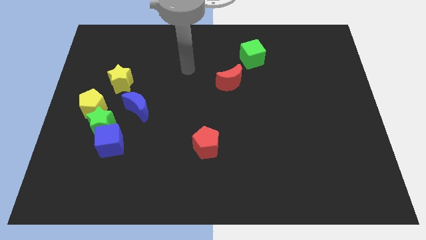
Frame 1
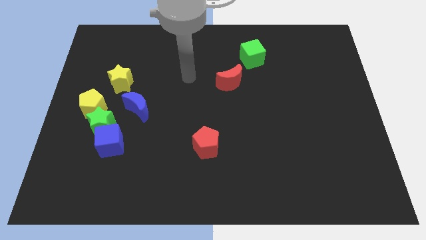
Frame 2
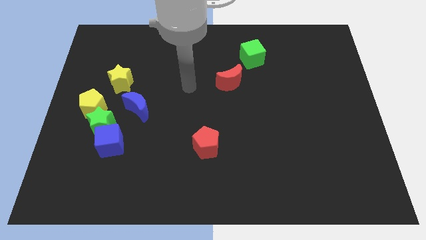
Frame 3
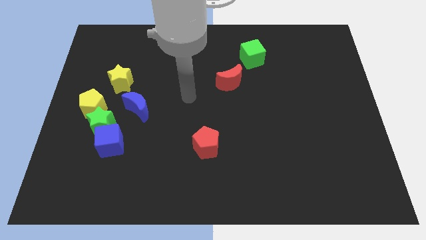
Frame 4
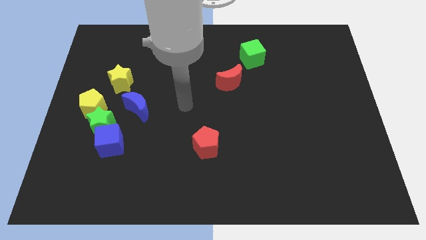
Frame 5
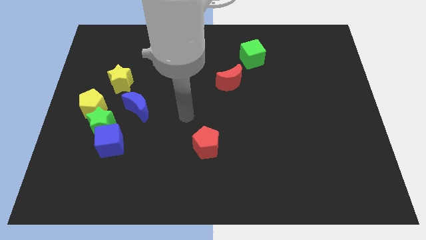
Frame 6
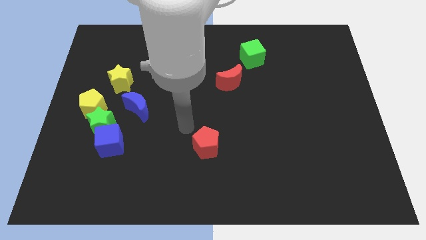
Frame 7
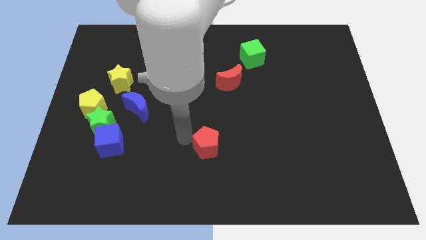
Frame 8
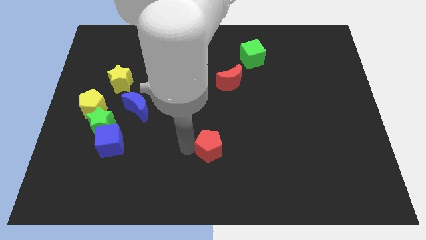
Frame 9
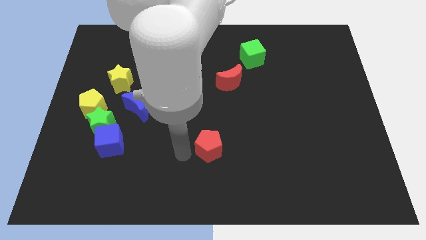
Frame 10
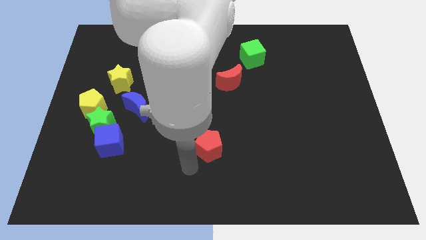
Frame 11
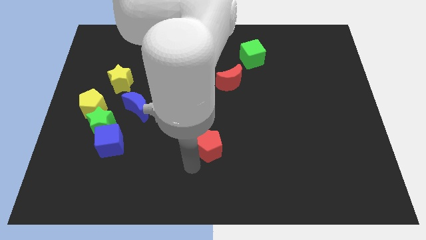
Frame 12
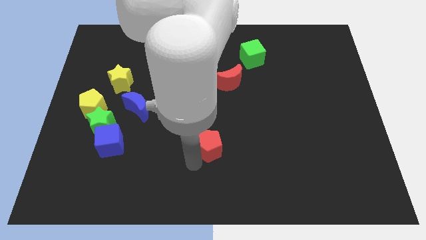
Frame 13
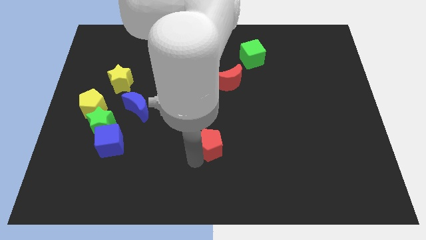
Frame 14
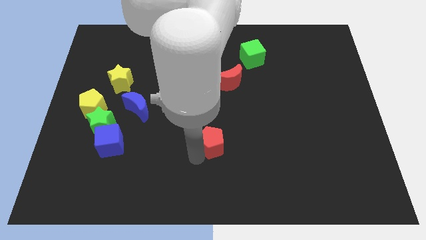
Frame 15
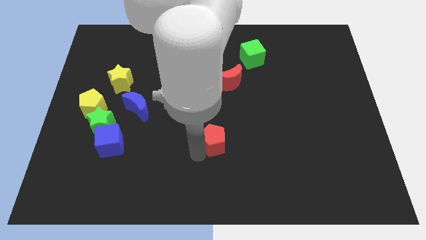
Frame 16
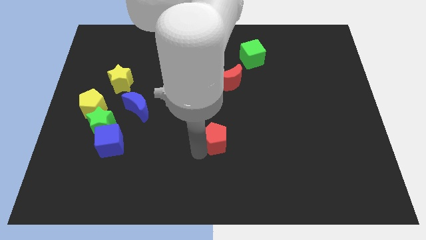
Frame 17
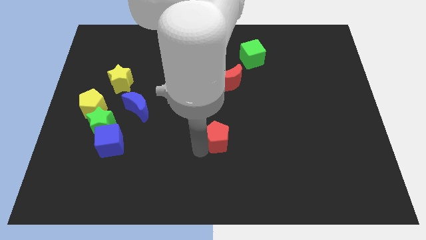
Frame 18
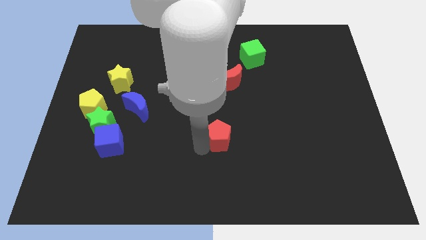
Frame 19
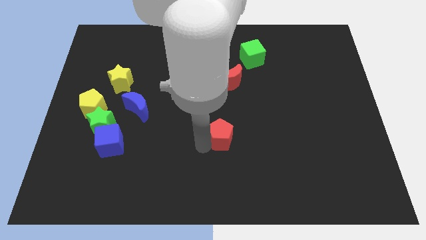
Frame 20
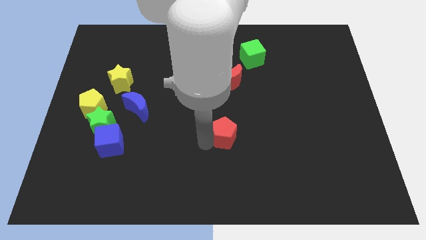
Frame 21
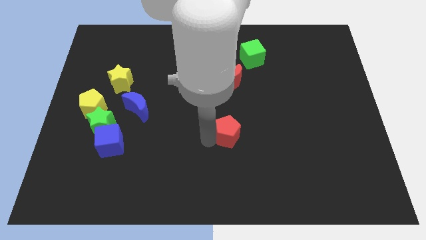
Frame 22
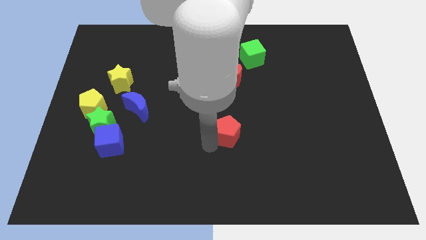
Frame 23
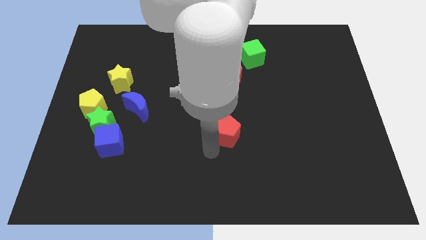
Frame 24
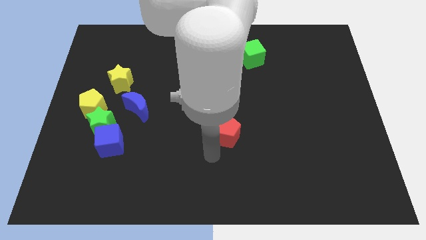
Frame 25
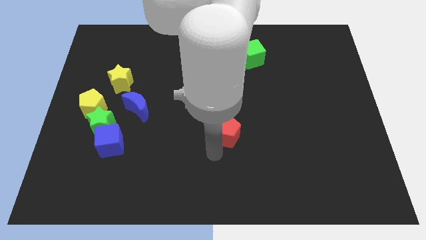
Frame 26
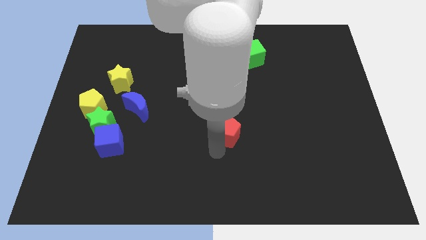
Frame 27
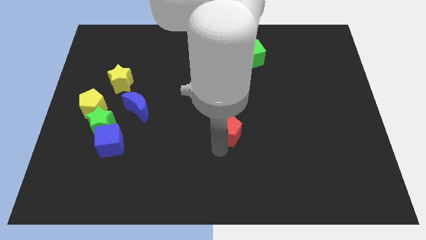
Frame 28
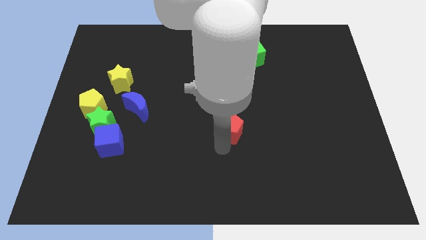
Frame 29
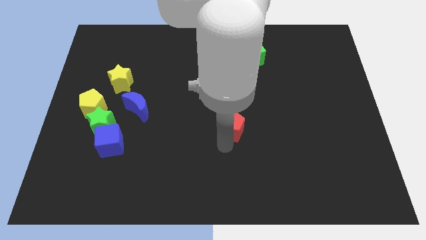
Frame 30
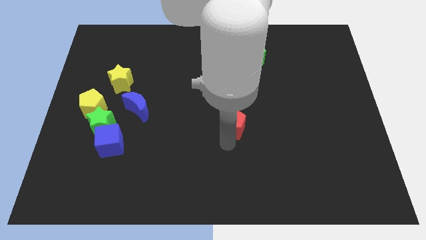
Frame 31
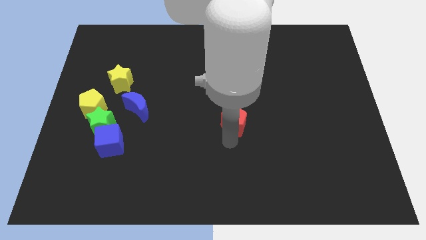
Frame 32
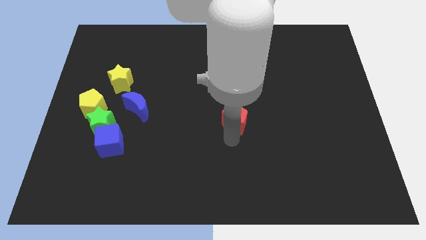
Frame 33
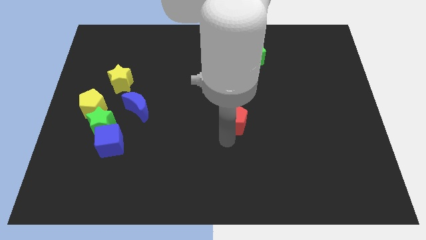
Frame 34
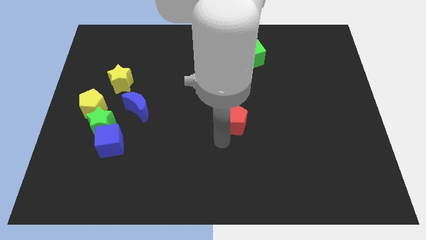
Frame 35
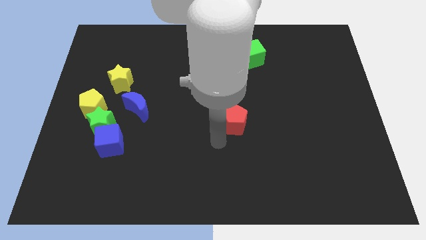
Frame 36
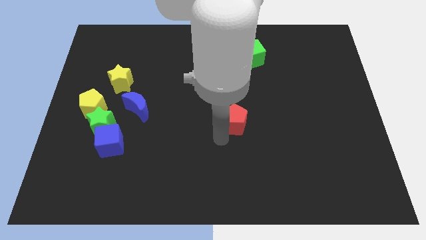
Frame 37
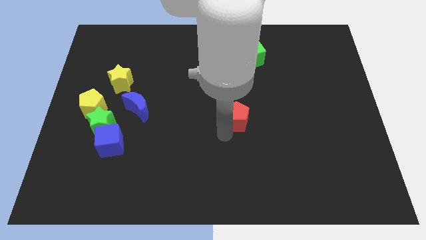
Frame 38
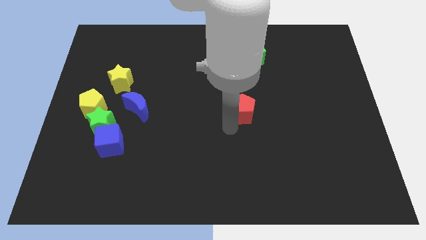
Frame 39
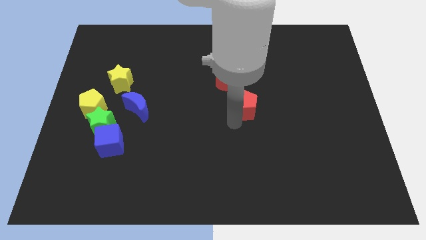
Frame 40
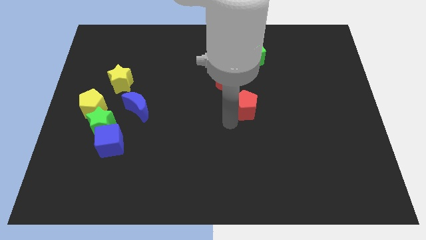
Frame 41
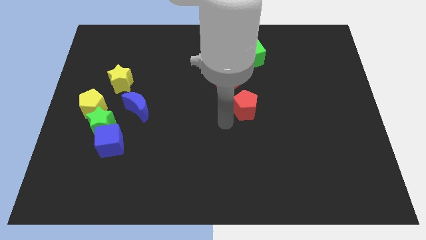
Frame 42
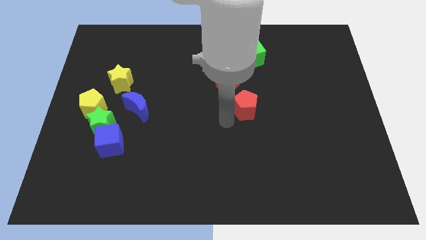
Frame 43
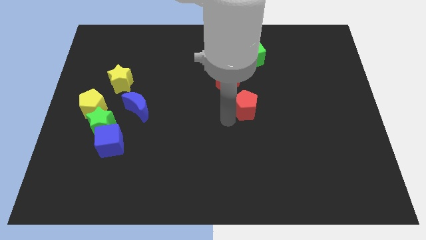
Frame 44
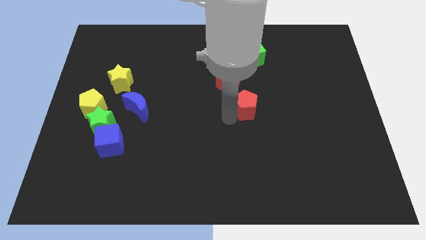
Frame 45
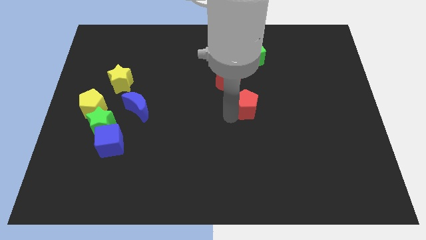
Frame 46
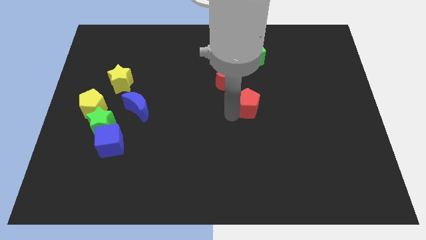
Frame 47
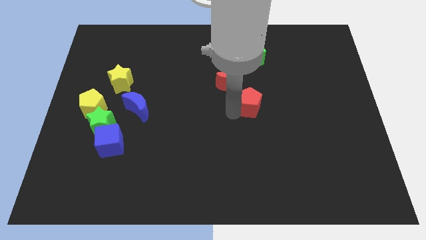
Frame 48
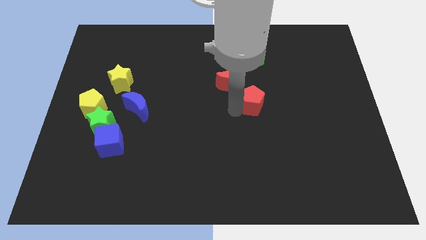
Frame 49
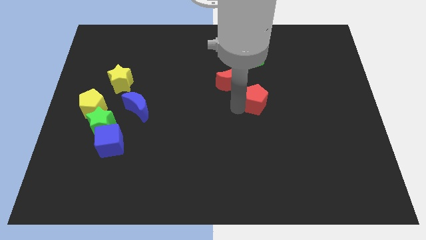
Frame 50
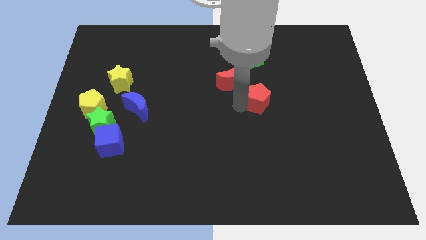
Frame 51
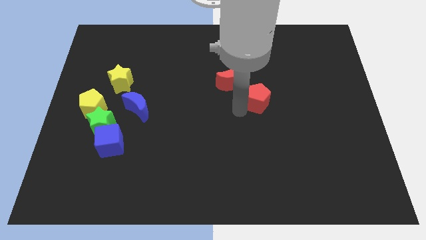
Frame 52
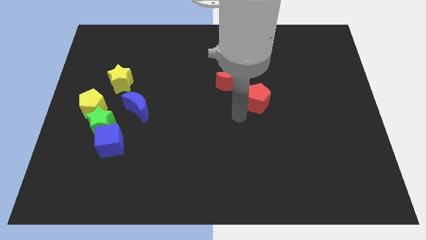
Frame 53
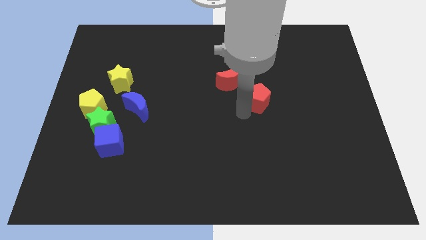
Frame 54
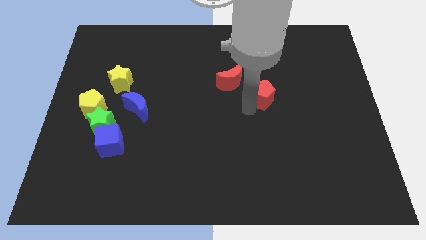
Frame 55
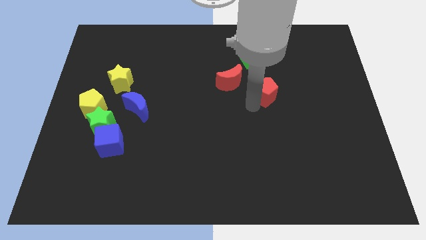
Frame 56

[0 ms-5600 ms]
push the red pentagon up and right

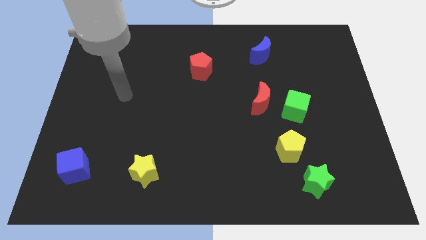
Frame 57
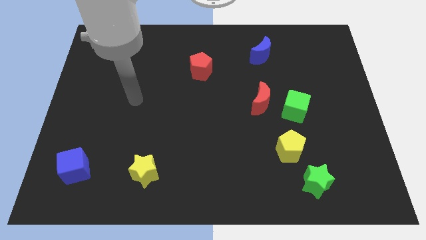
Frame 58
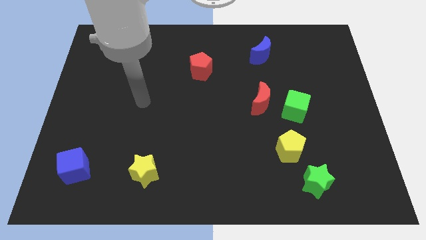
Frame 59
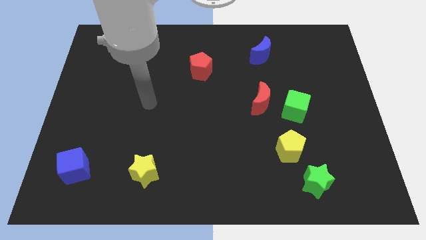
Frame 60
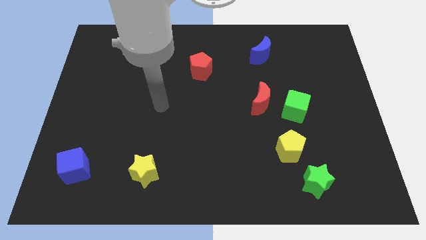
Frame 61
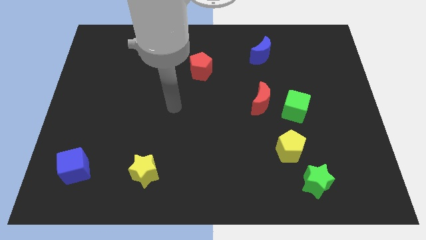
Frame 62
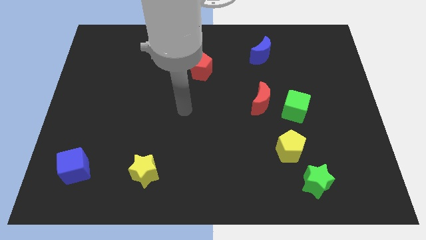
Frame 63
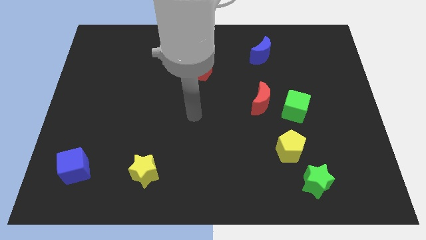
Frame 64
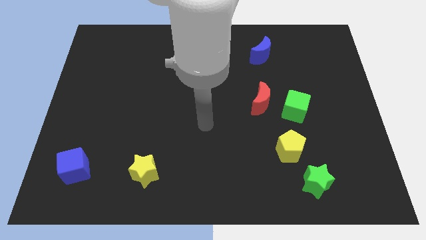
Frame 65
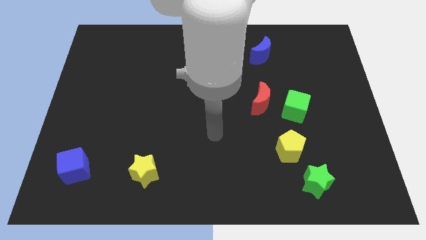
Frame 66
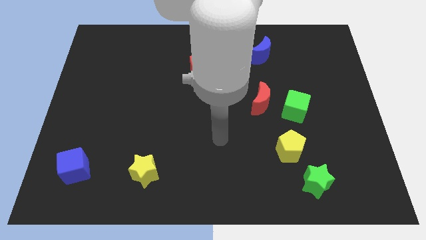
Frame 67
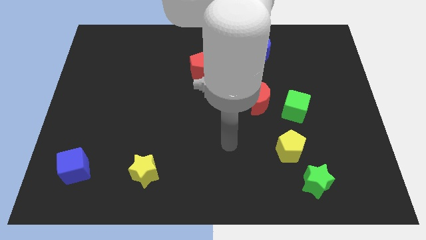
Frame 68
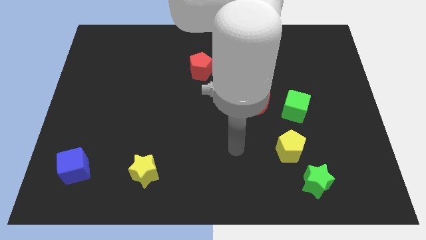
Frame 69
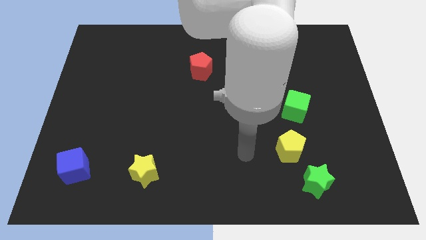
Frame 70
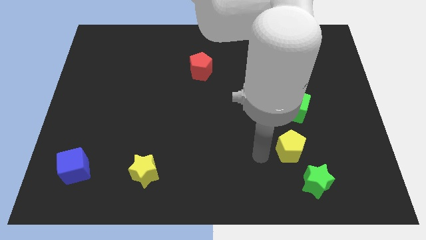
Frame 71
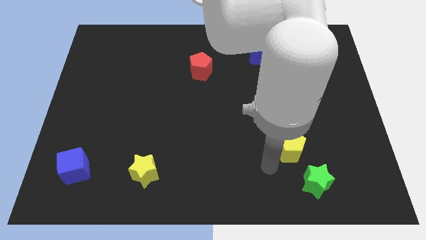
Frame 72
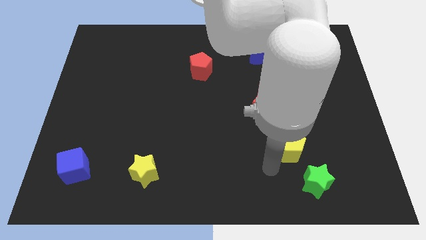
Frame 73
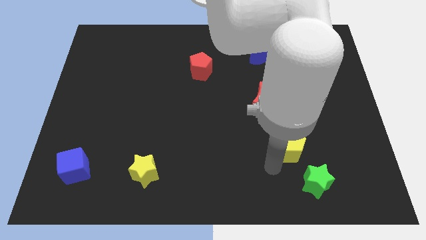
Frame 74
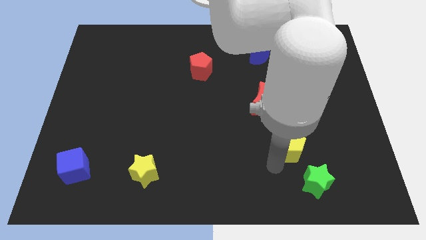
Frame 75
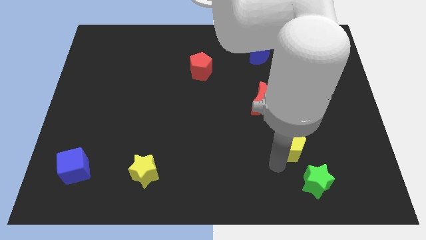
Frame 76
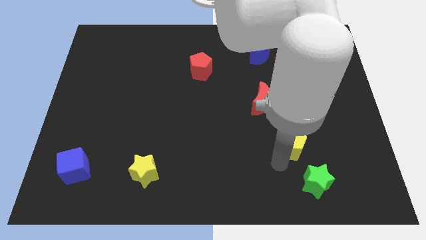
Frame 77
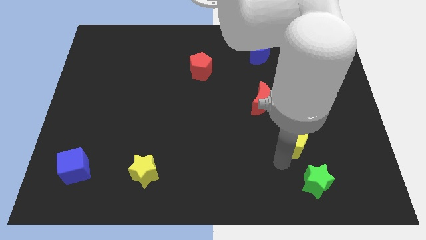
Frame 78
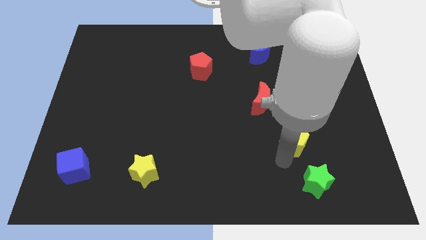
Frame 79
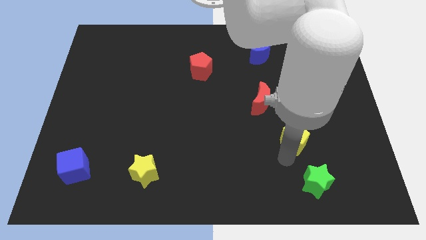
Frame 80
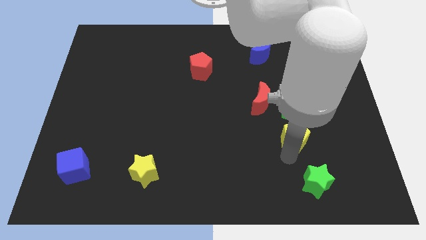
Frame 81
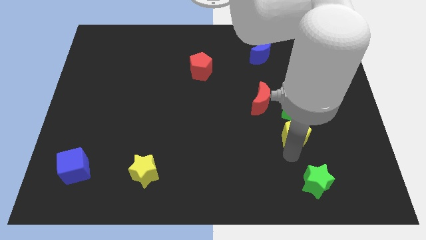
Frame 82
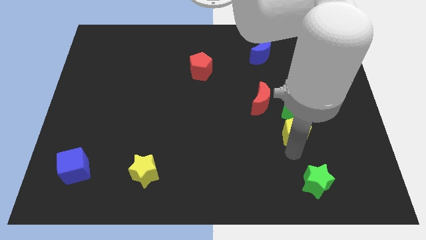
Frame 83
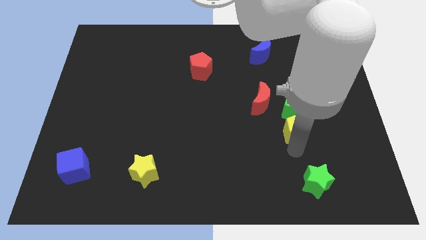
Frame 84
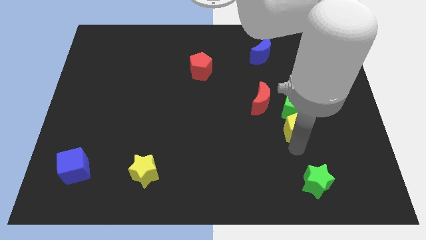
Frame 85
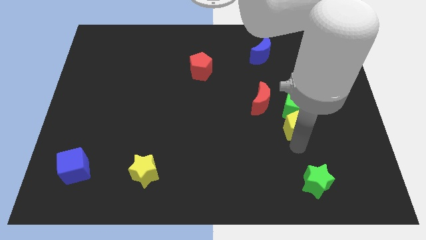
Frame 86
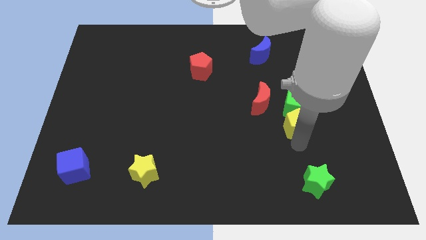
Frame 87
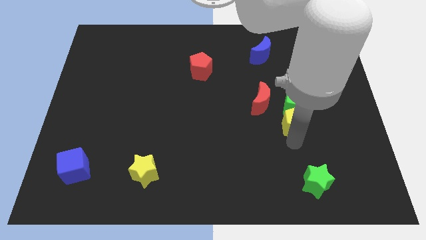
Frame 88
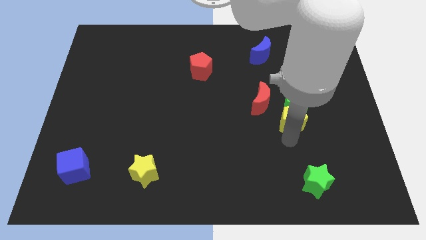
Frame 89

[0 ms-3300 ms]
slightly slide the yellow pentagon upwards
